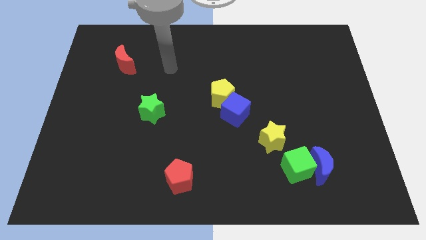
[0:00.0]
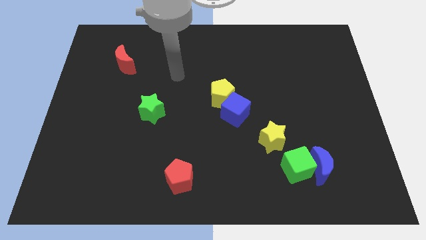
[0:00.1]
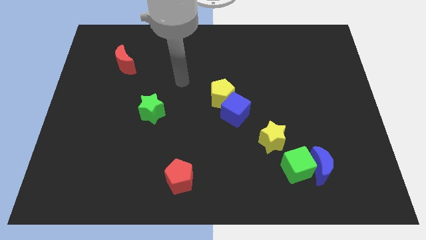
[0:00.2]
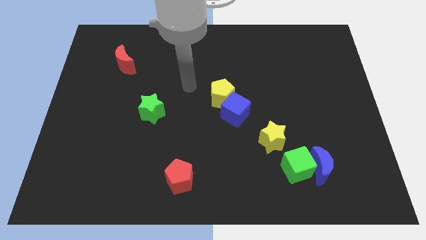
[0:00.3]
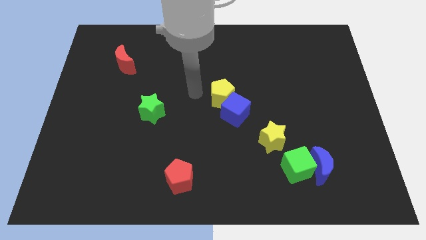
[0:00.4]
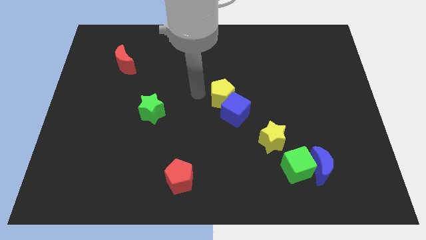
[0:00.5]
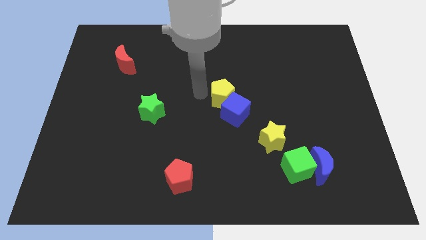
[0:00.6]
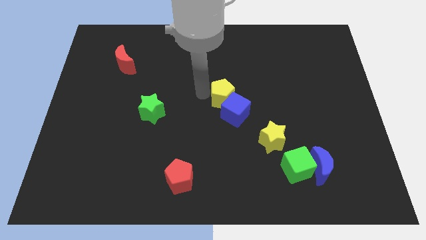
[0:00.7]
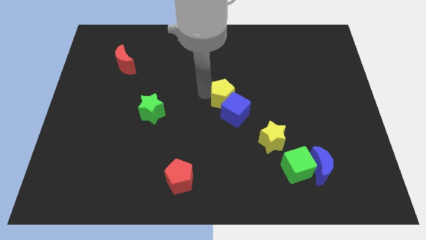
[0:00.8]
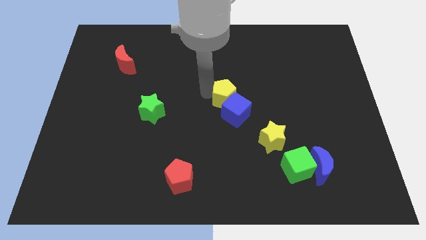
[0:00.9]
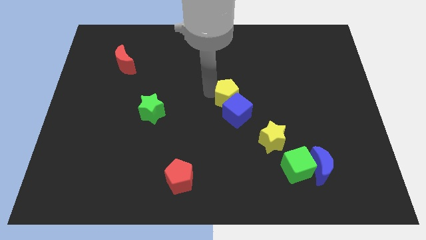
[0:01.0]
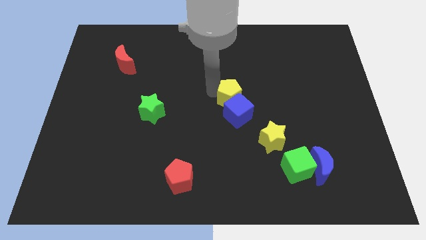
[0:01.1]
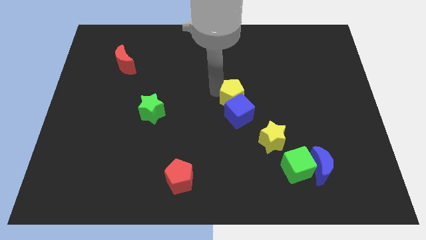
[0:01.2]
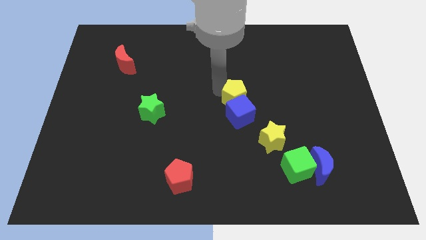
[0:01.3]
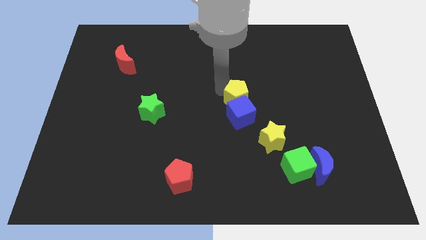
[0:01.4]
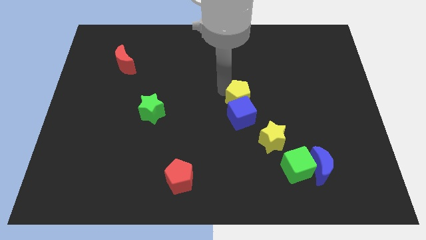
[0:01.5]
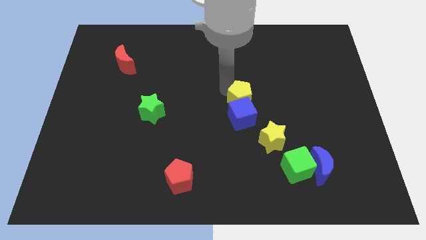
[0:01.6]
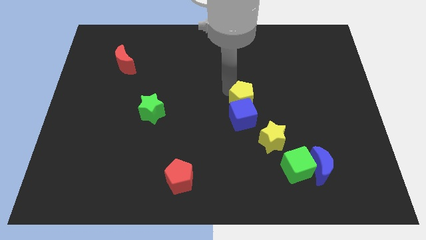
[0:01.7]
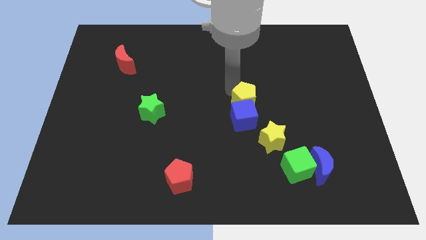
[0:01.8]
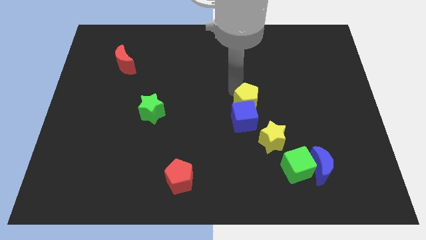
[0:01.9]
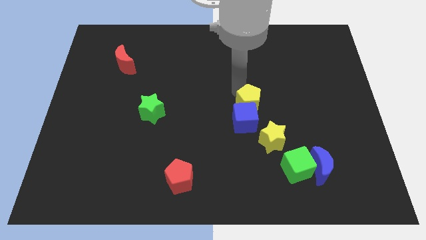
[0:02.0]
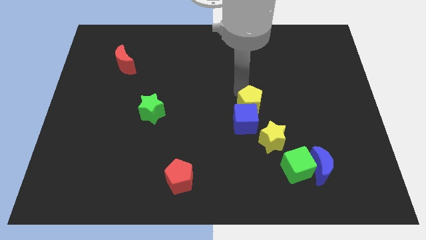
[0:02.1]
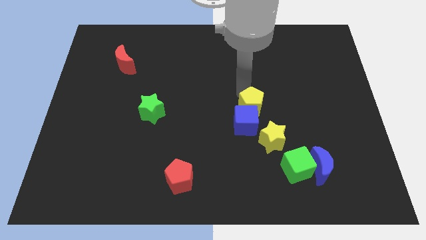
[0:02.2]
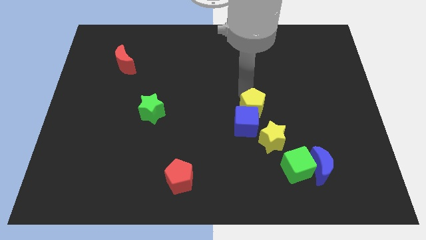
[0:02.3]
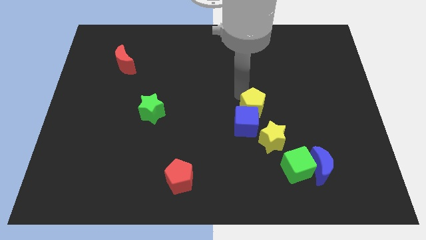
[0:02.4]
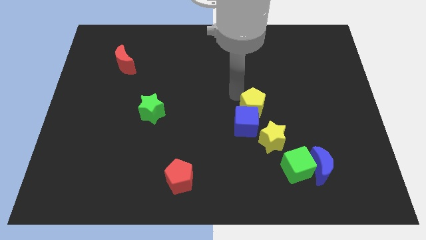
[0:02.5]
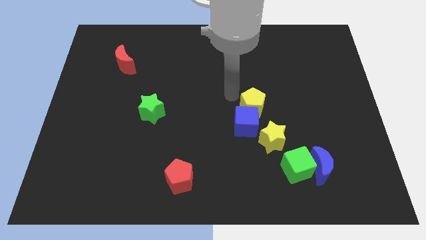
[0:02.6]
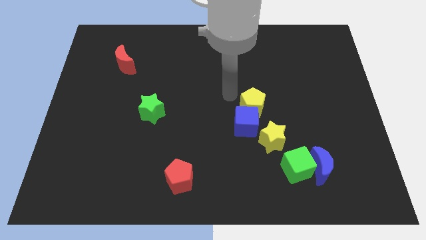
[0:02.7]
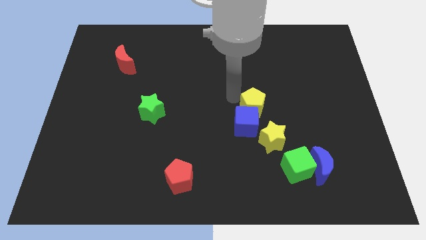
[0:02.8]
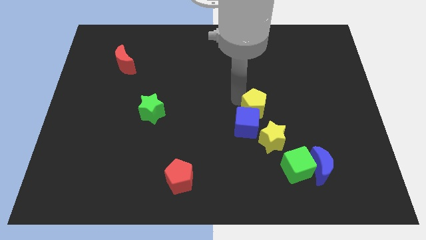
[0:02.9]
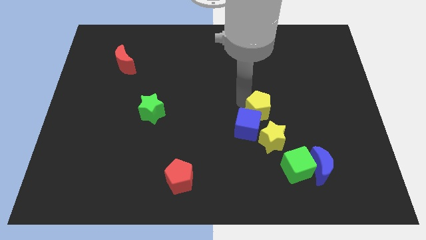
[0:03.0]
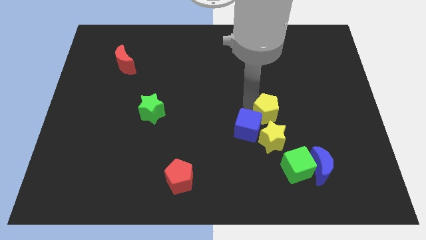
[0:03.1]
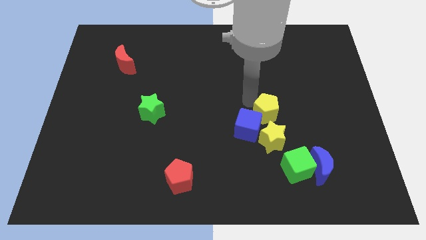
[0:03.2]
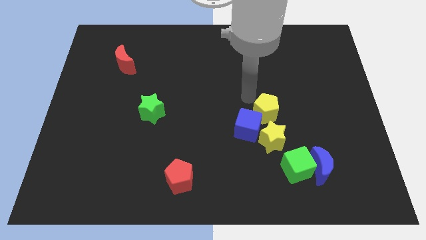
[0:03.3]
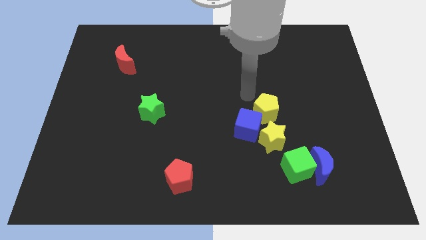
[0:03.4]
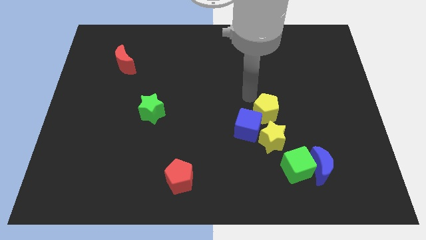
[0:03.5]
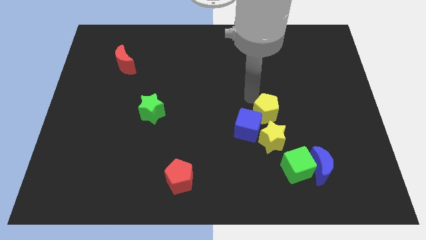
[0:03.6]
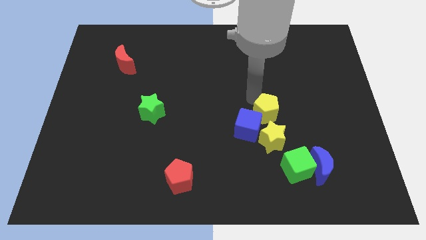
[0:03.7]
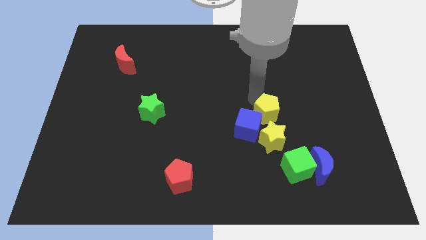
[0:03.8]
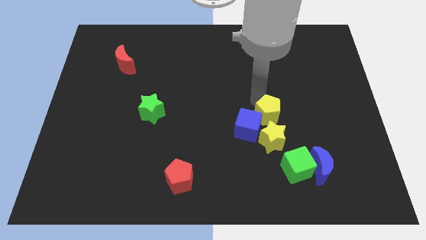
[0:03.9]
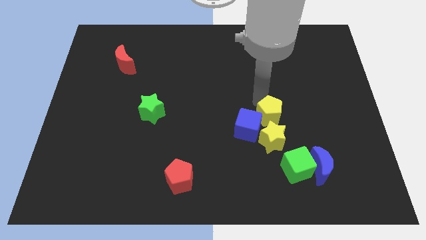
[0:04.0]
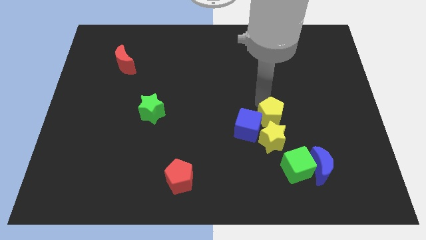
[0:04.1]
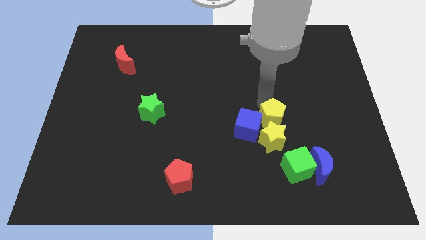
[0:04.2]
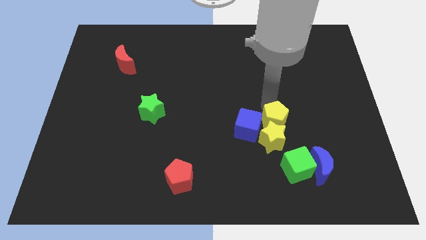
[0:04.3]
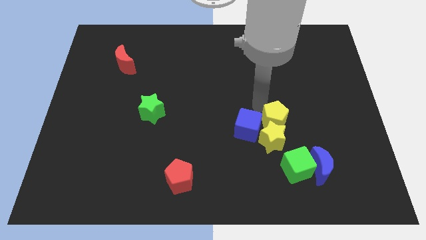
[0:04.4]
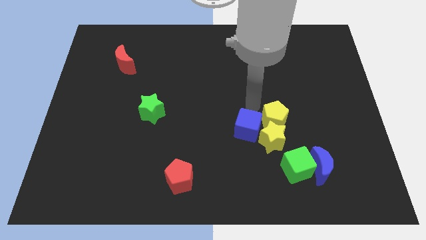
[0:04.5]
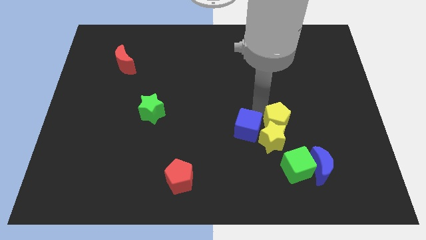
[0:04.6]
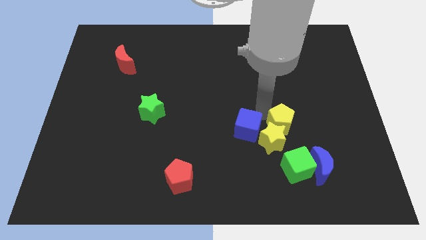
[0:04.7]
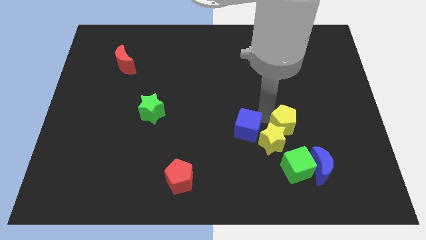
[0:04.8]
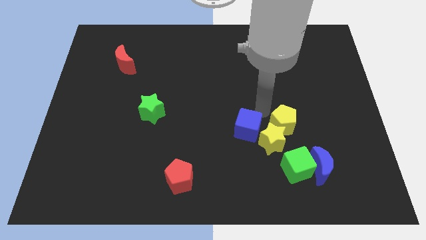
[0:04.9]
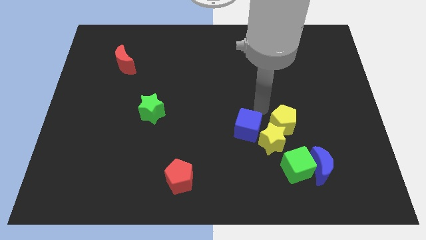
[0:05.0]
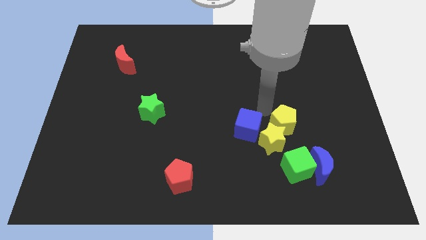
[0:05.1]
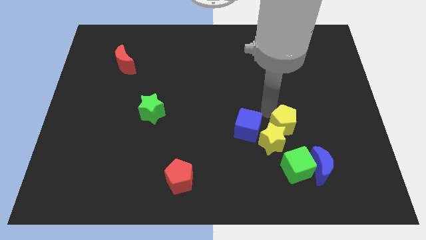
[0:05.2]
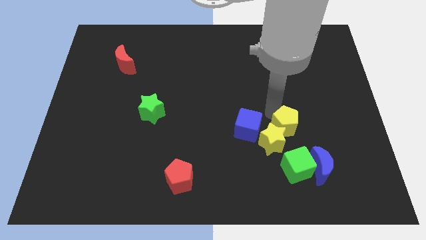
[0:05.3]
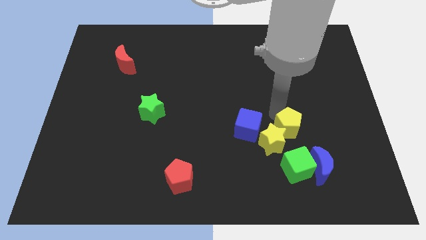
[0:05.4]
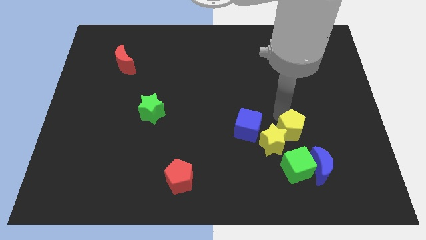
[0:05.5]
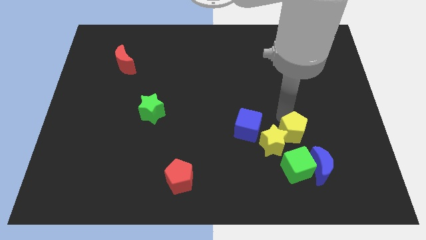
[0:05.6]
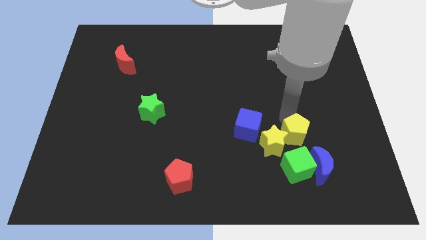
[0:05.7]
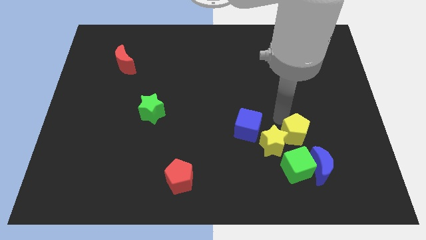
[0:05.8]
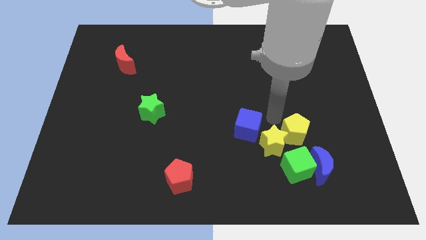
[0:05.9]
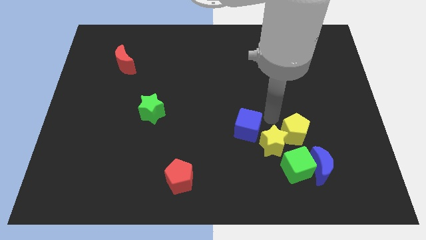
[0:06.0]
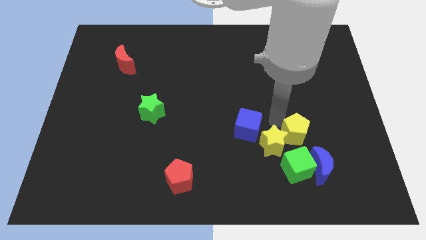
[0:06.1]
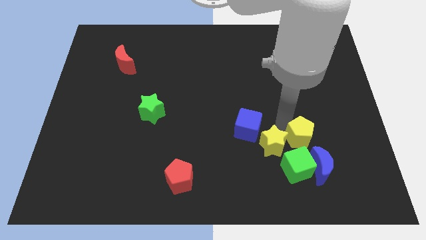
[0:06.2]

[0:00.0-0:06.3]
push the yellow pentagon to the top right of the green cube
